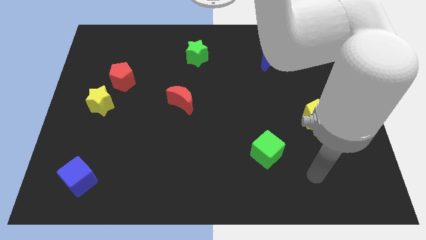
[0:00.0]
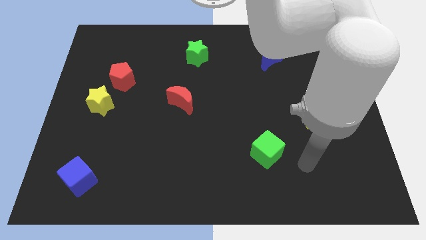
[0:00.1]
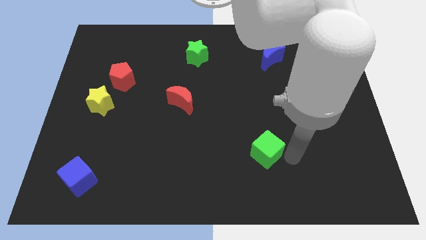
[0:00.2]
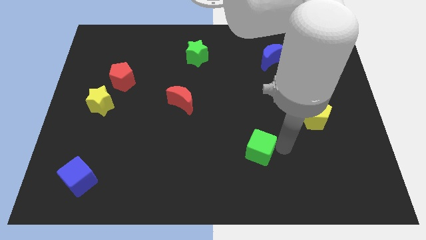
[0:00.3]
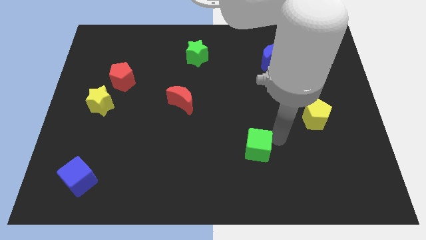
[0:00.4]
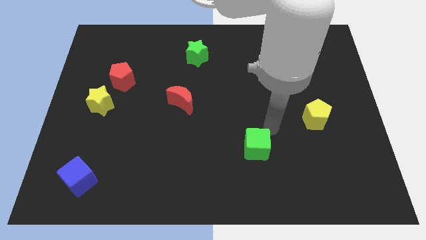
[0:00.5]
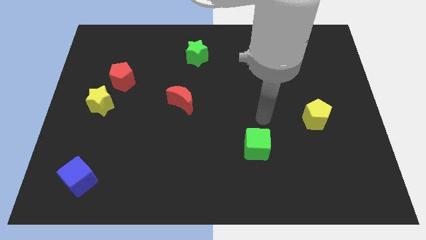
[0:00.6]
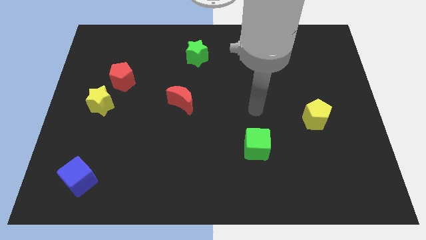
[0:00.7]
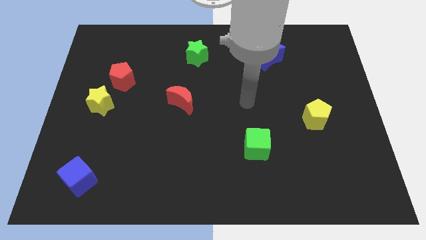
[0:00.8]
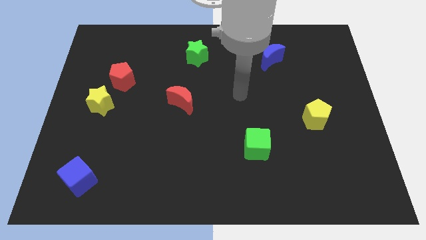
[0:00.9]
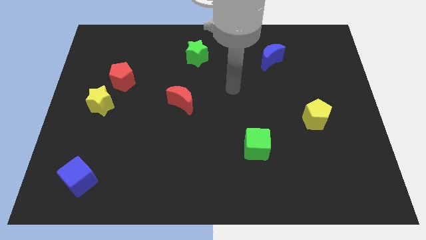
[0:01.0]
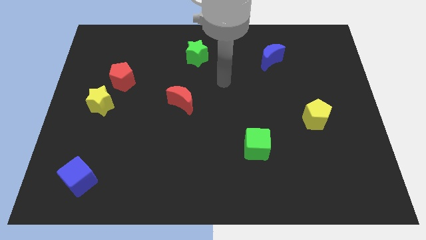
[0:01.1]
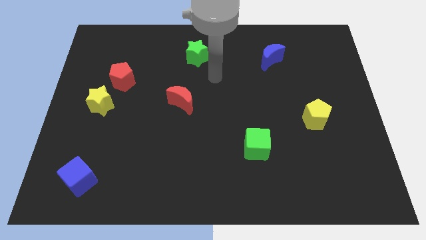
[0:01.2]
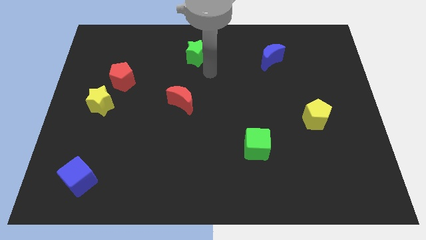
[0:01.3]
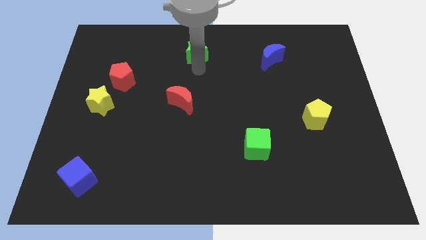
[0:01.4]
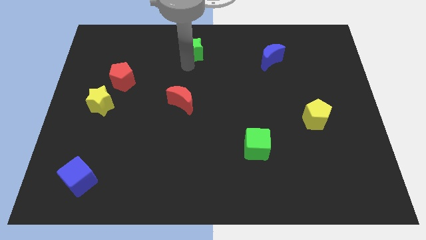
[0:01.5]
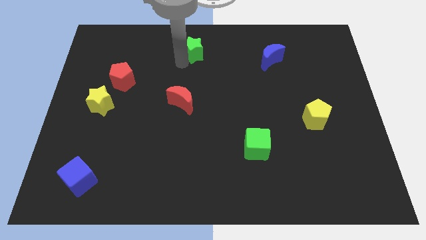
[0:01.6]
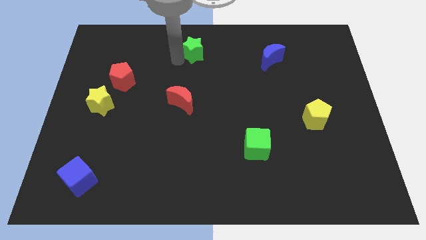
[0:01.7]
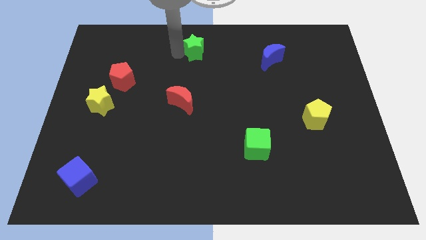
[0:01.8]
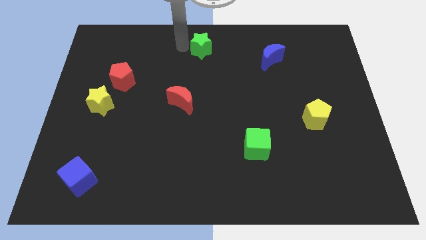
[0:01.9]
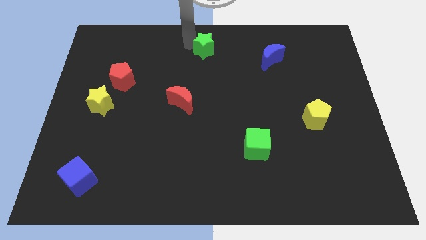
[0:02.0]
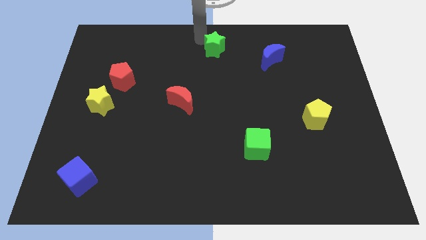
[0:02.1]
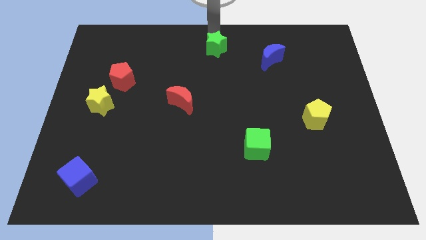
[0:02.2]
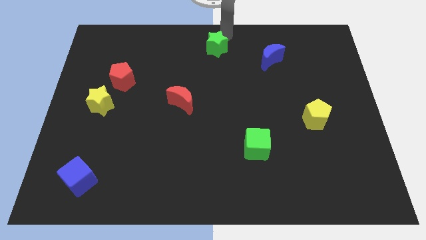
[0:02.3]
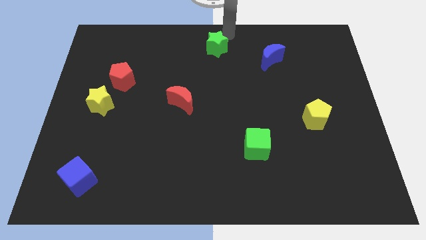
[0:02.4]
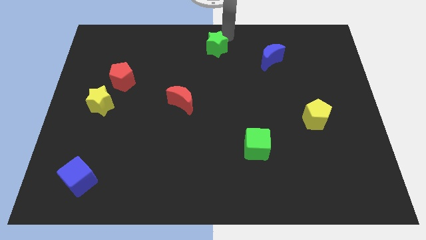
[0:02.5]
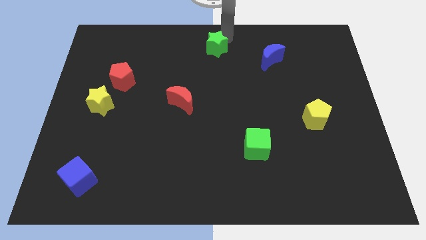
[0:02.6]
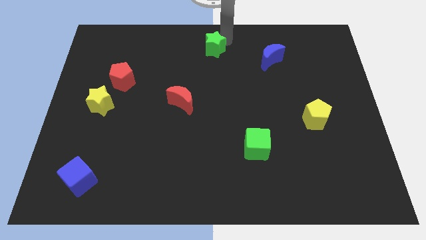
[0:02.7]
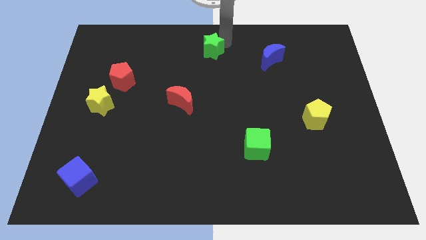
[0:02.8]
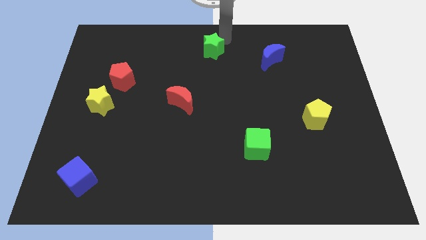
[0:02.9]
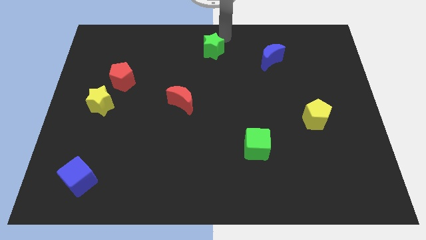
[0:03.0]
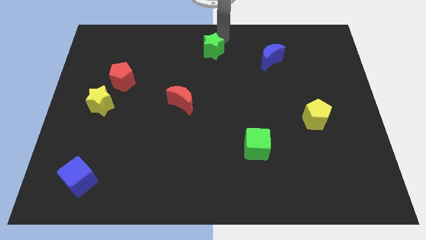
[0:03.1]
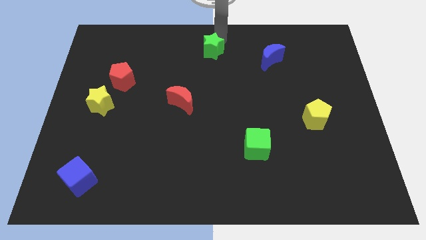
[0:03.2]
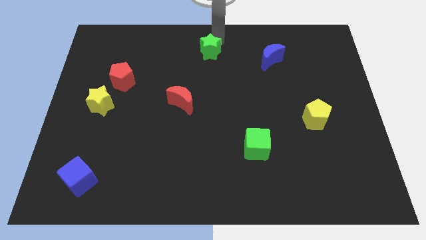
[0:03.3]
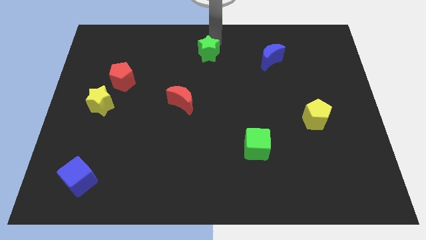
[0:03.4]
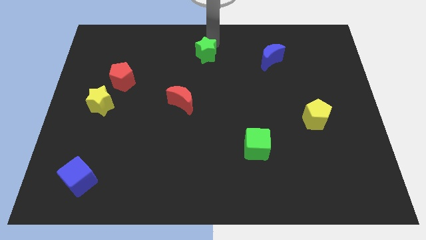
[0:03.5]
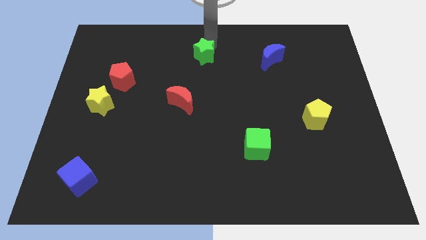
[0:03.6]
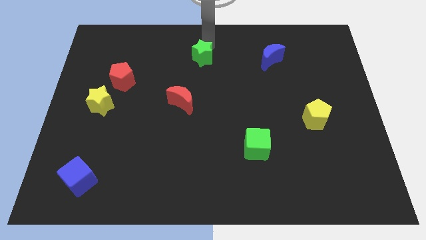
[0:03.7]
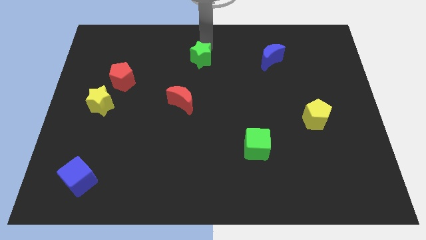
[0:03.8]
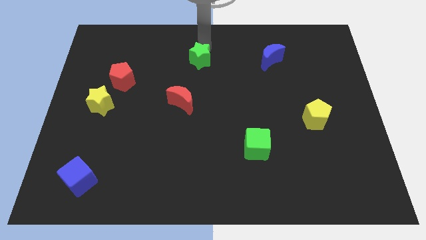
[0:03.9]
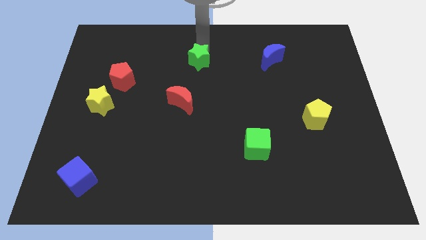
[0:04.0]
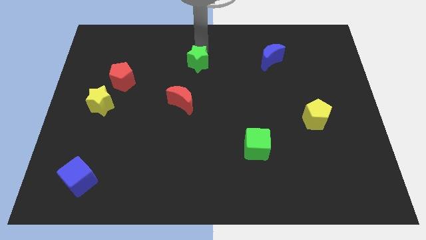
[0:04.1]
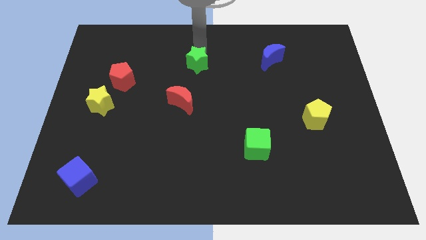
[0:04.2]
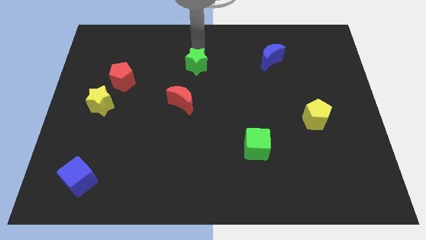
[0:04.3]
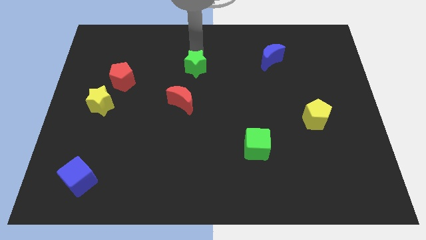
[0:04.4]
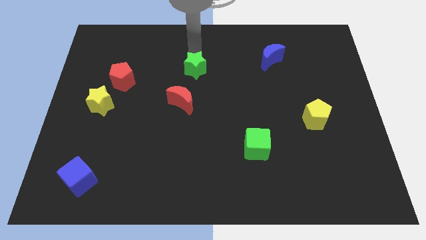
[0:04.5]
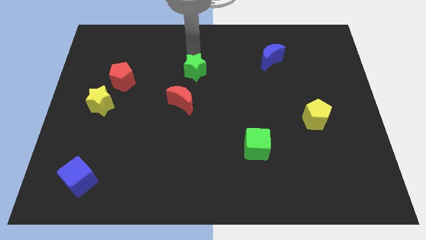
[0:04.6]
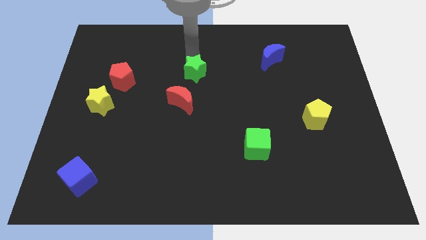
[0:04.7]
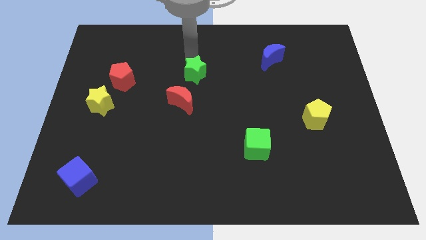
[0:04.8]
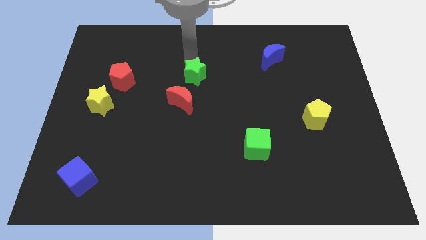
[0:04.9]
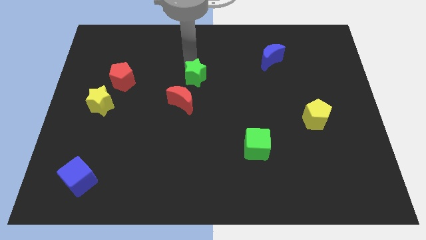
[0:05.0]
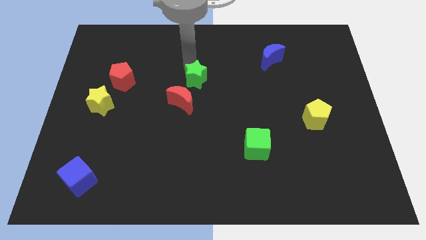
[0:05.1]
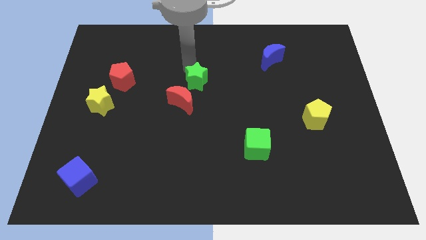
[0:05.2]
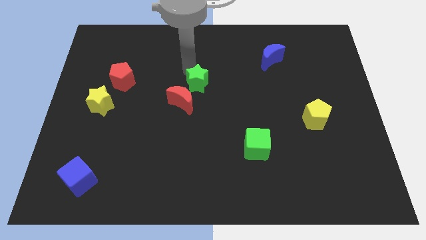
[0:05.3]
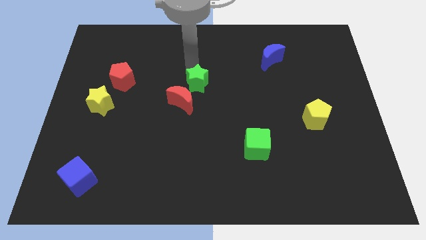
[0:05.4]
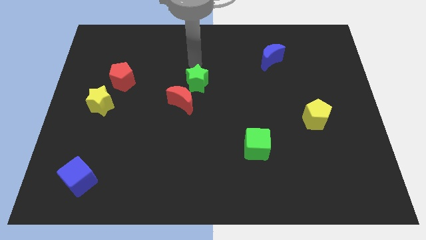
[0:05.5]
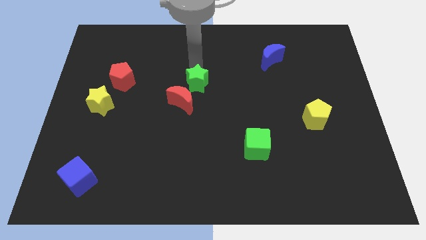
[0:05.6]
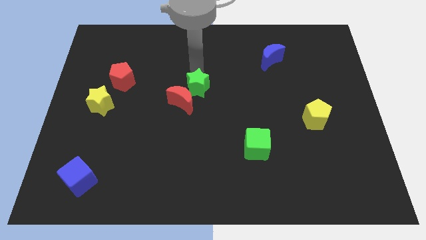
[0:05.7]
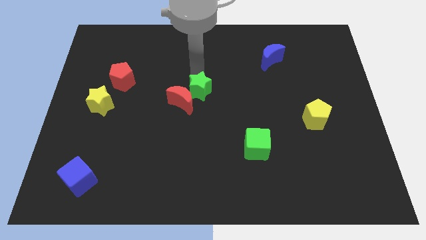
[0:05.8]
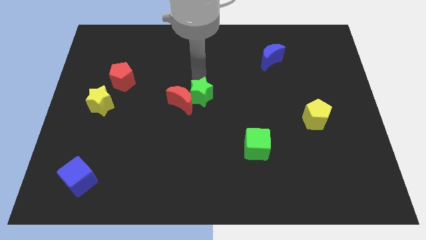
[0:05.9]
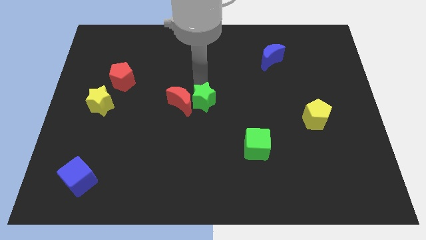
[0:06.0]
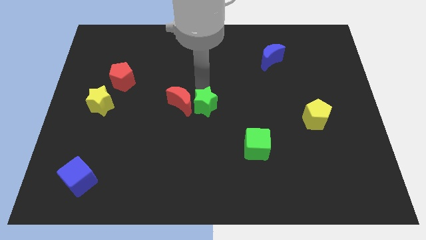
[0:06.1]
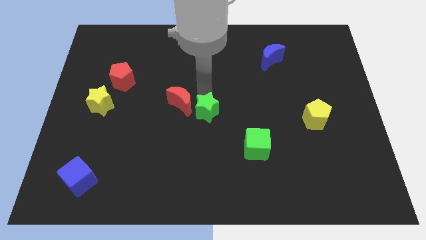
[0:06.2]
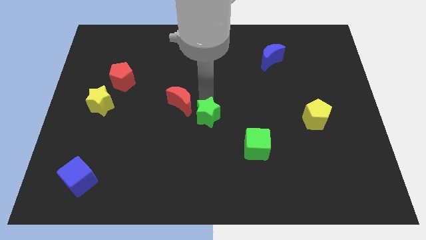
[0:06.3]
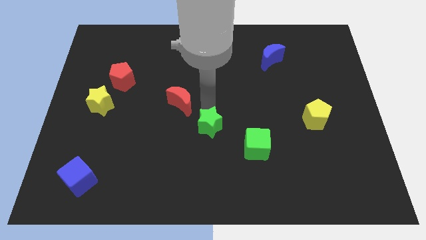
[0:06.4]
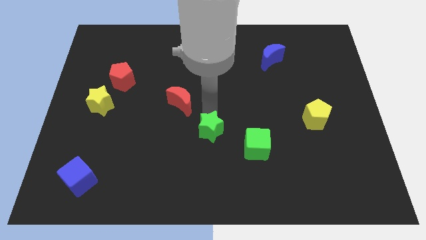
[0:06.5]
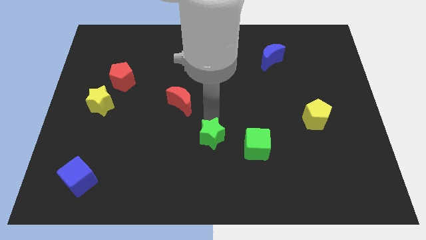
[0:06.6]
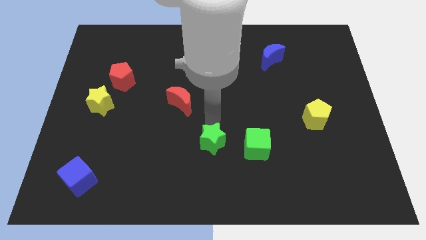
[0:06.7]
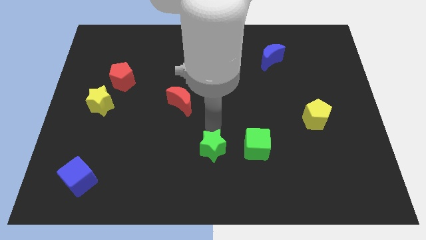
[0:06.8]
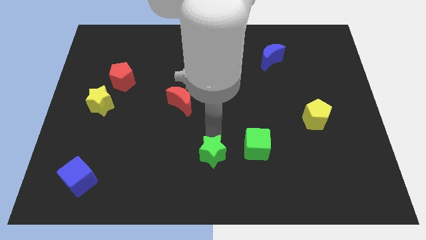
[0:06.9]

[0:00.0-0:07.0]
slide the green star to the bottom side

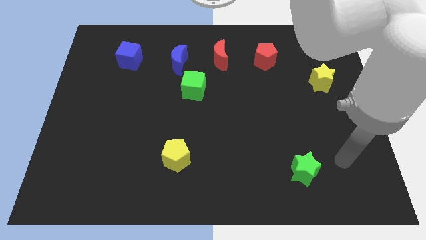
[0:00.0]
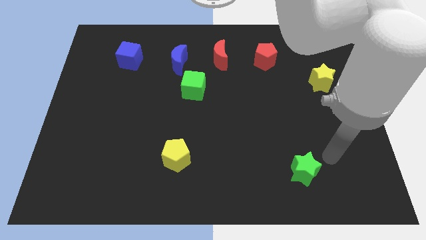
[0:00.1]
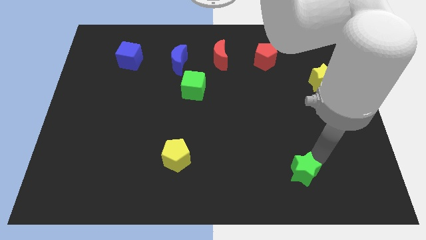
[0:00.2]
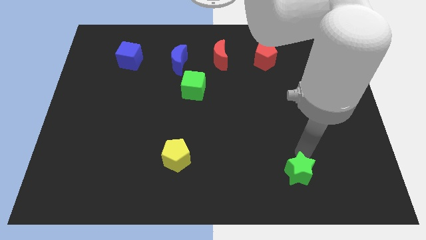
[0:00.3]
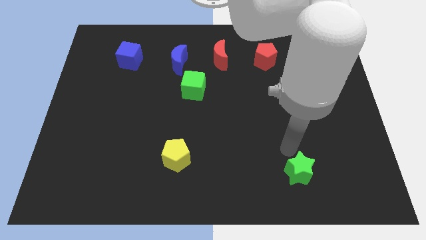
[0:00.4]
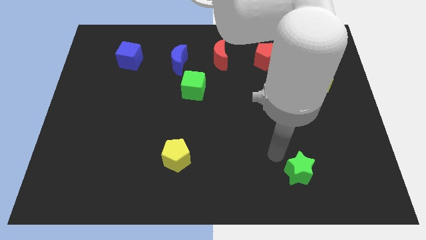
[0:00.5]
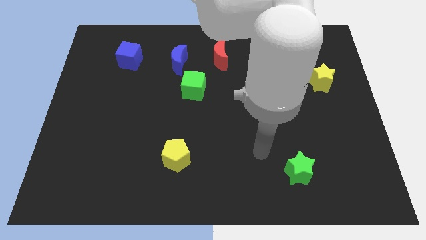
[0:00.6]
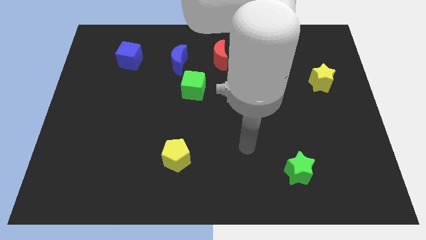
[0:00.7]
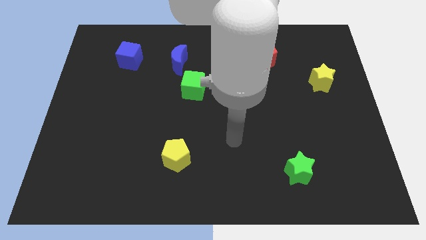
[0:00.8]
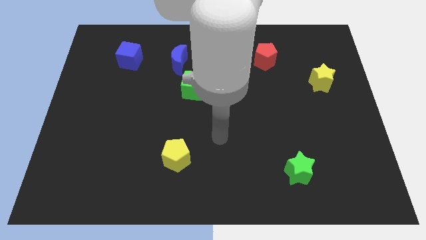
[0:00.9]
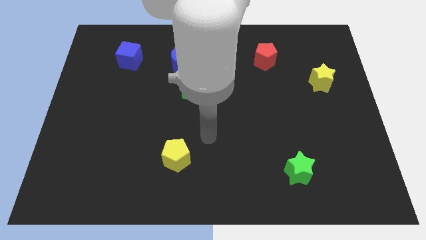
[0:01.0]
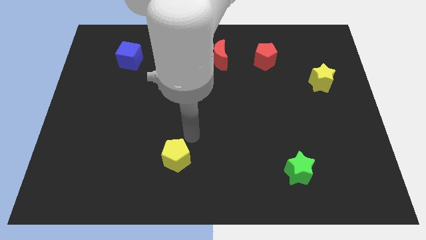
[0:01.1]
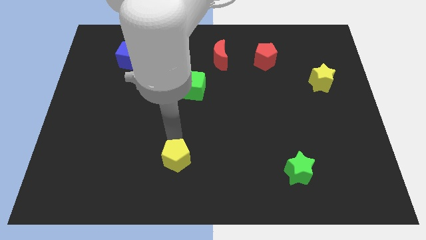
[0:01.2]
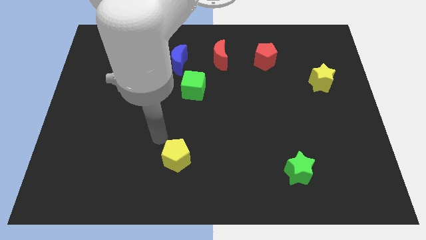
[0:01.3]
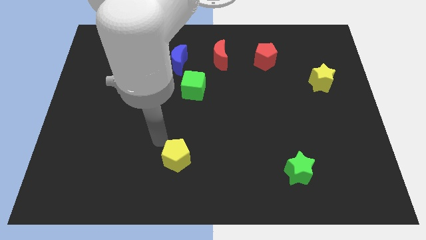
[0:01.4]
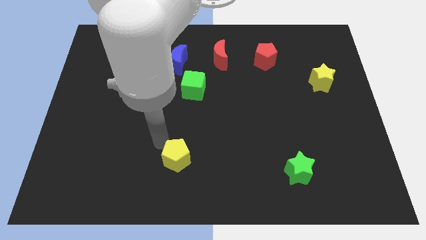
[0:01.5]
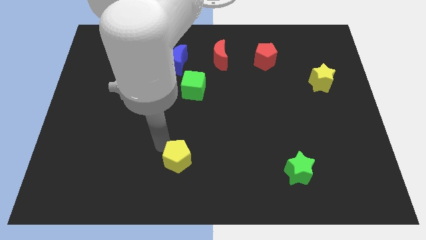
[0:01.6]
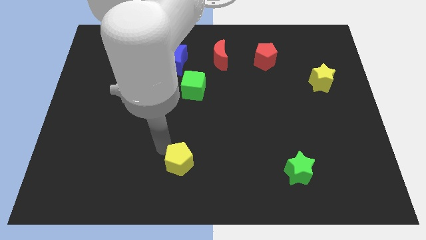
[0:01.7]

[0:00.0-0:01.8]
push the yellow pentagon to the bottom side
